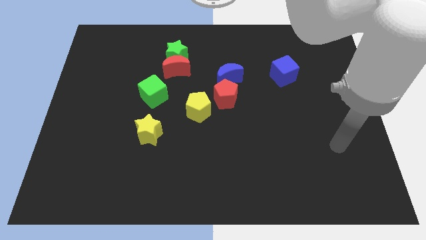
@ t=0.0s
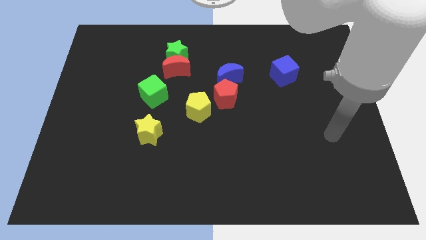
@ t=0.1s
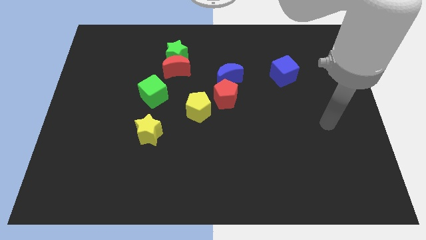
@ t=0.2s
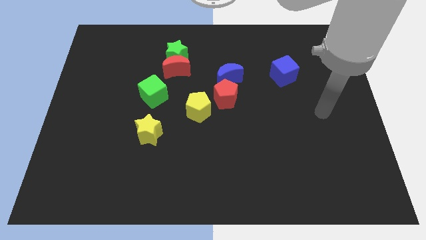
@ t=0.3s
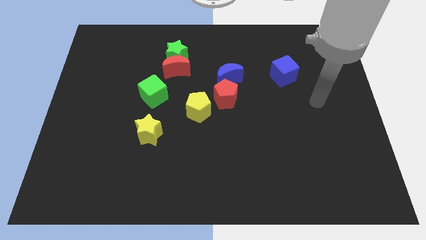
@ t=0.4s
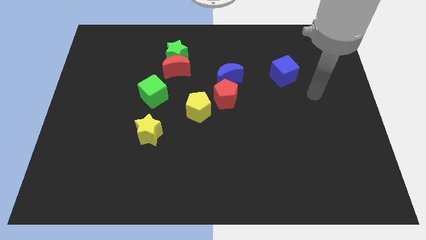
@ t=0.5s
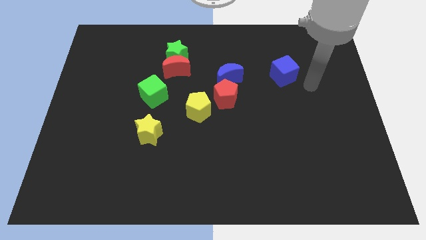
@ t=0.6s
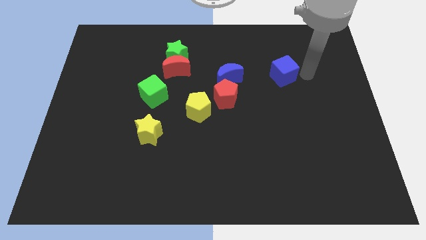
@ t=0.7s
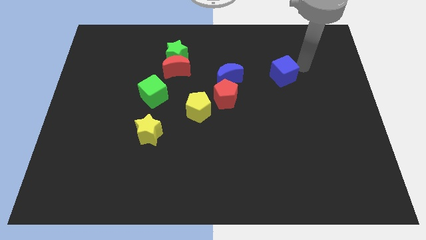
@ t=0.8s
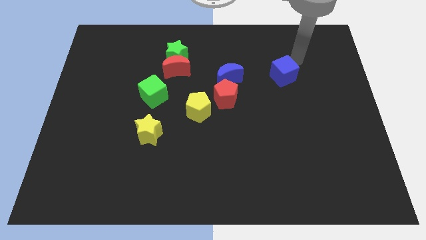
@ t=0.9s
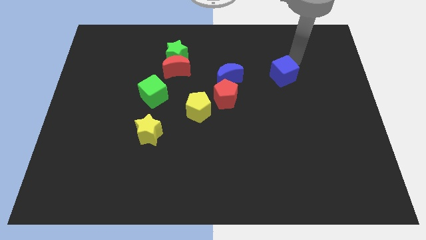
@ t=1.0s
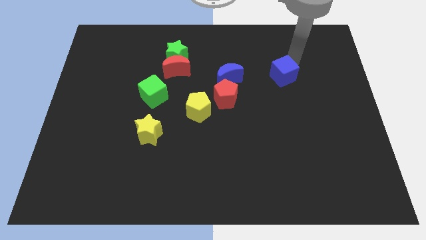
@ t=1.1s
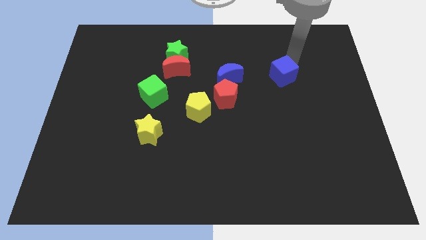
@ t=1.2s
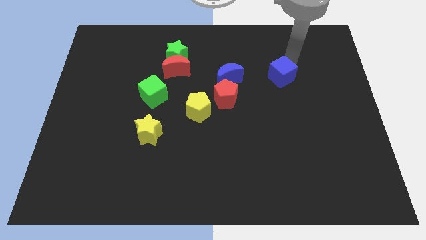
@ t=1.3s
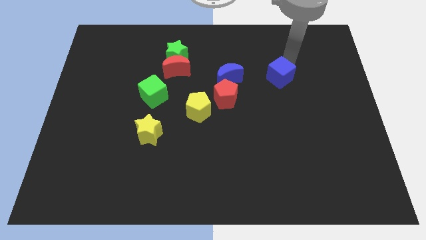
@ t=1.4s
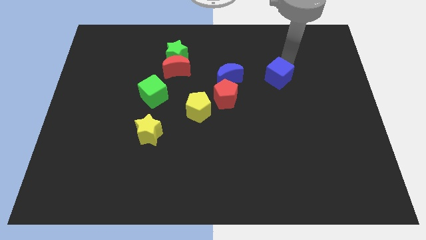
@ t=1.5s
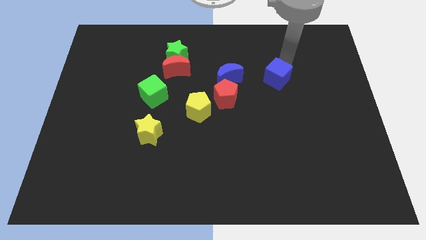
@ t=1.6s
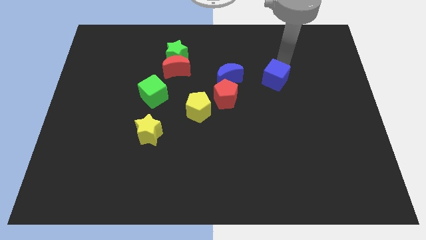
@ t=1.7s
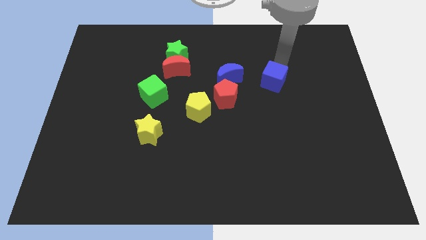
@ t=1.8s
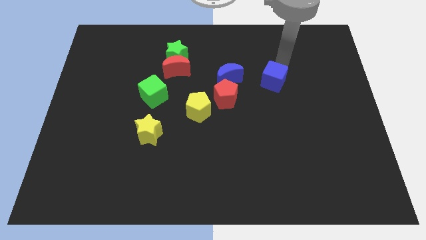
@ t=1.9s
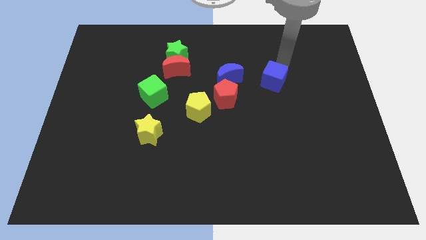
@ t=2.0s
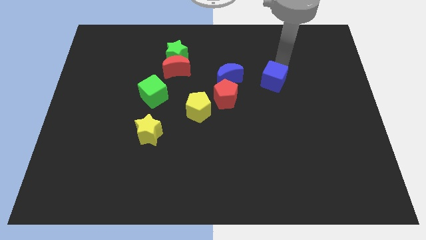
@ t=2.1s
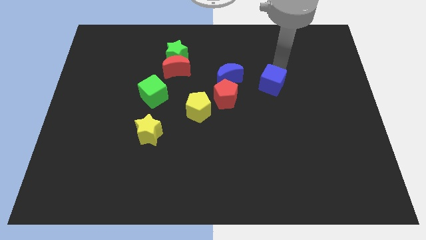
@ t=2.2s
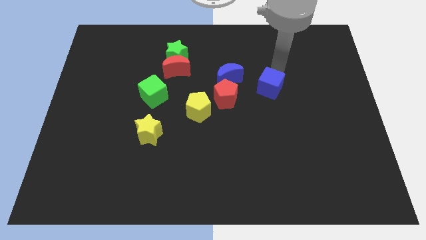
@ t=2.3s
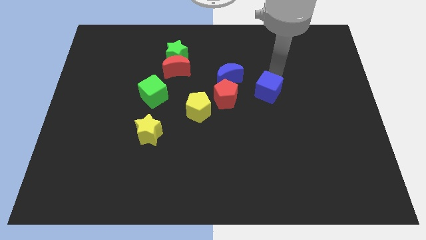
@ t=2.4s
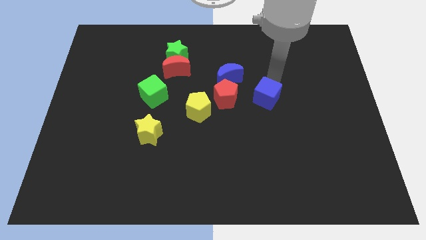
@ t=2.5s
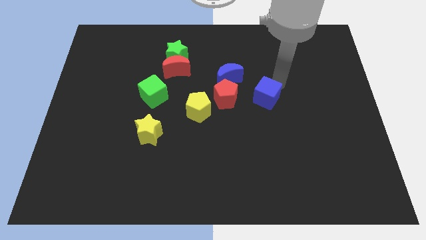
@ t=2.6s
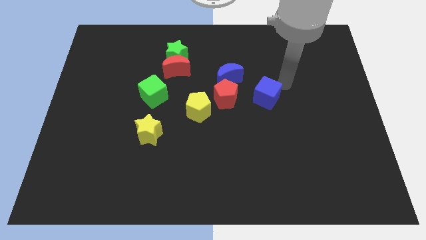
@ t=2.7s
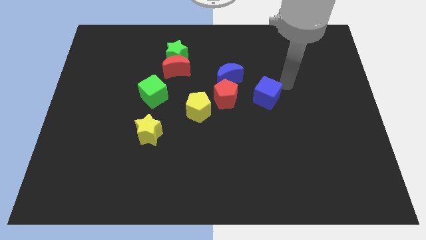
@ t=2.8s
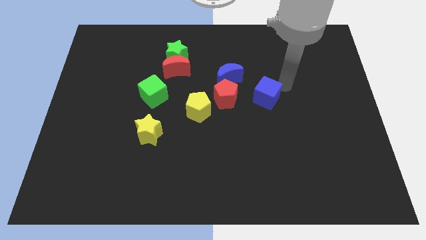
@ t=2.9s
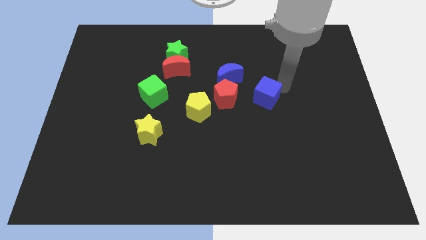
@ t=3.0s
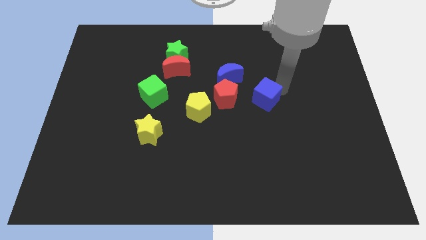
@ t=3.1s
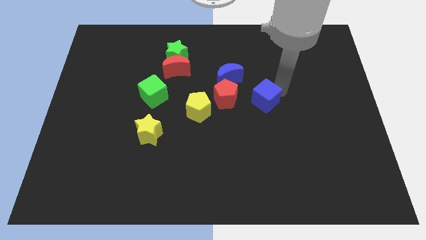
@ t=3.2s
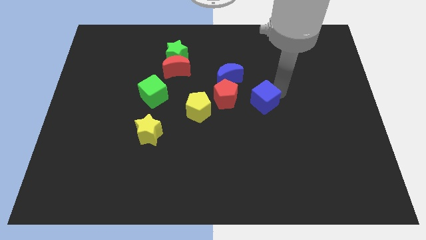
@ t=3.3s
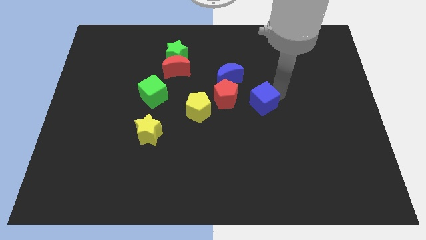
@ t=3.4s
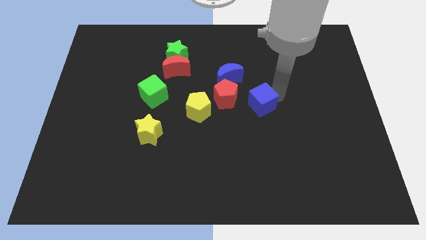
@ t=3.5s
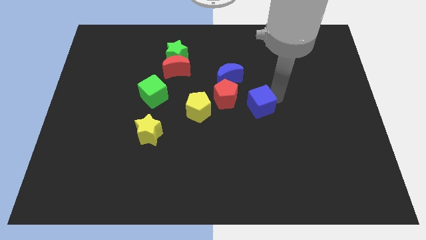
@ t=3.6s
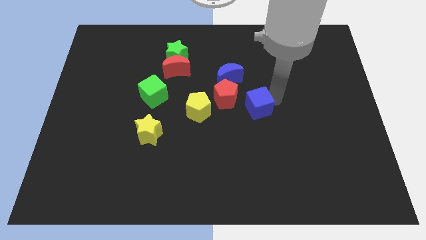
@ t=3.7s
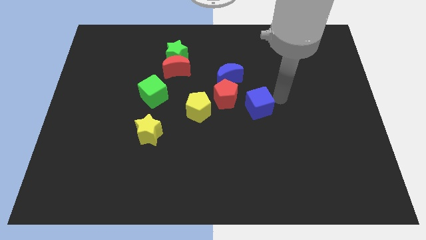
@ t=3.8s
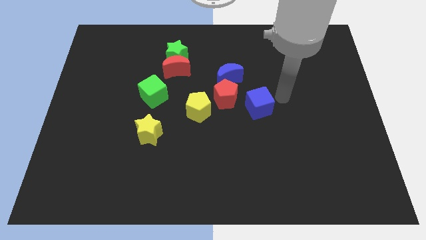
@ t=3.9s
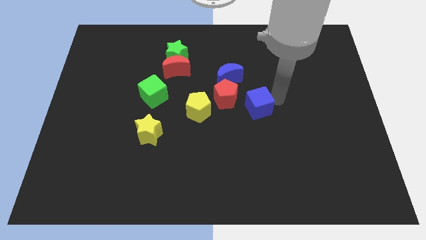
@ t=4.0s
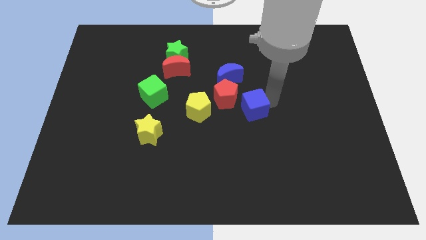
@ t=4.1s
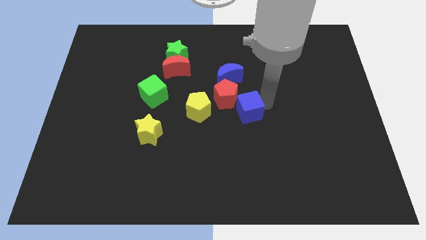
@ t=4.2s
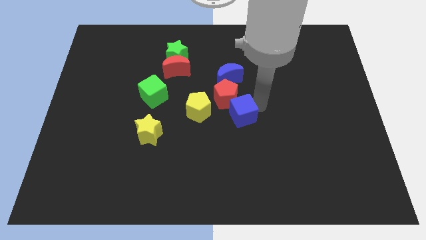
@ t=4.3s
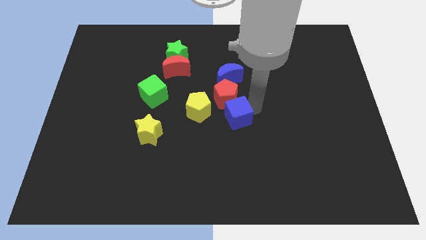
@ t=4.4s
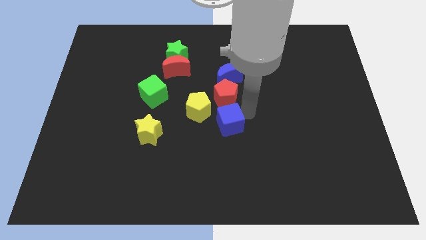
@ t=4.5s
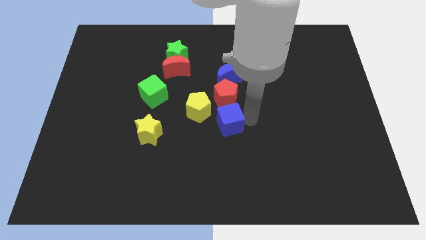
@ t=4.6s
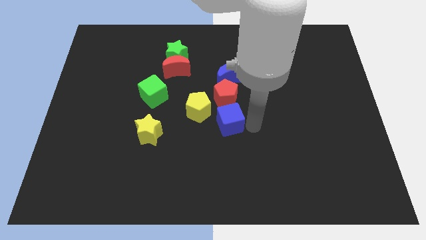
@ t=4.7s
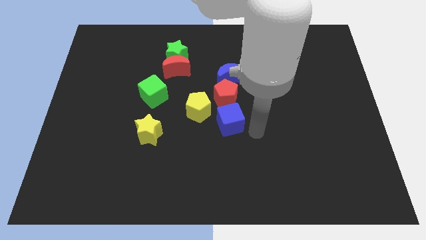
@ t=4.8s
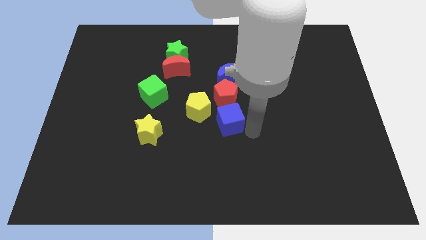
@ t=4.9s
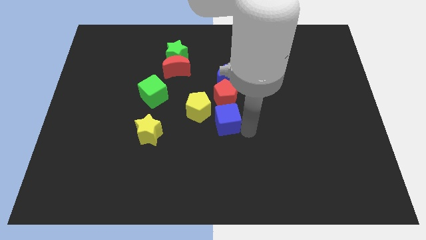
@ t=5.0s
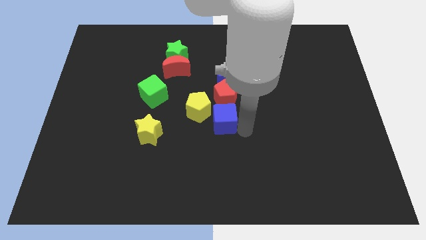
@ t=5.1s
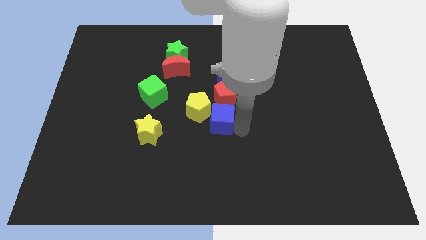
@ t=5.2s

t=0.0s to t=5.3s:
slide the blue cube next to the yellow pentagon

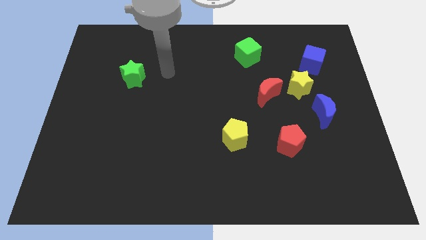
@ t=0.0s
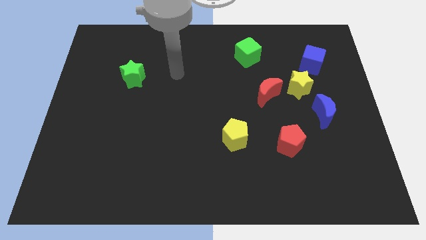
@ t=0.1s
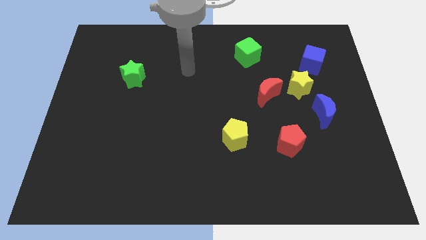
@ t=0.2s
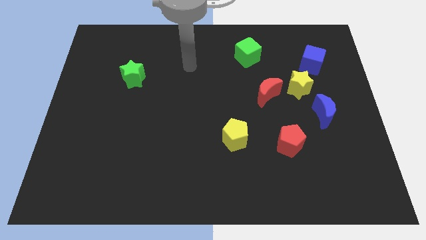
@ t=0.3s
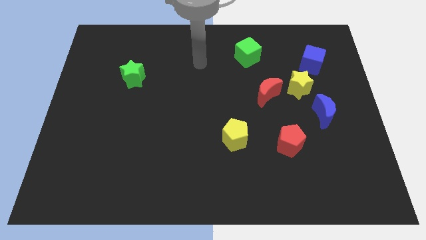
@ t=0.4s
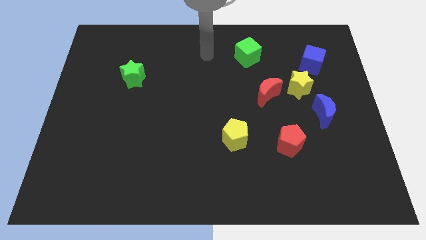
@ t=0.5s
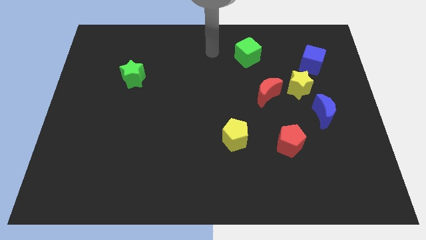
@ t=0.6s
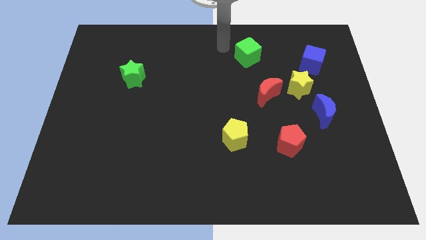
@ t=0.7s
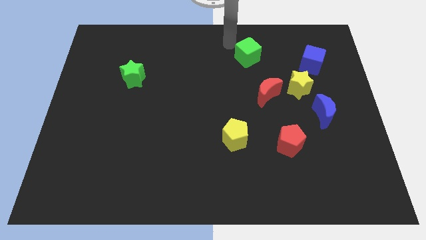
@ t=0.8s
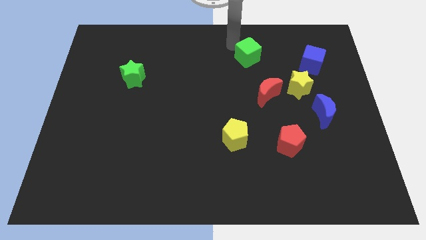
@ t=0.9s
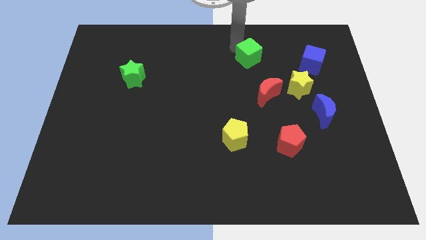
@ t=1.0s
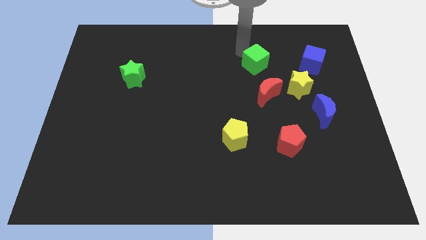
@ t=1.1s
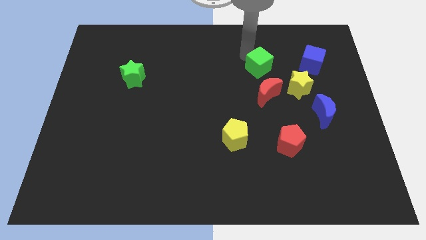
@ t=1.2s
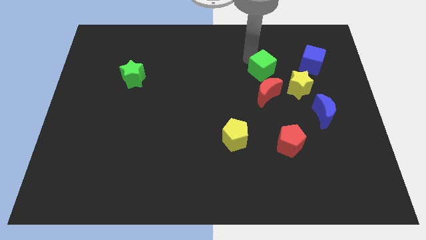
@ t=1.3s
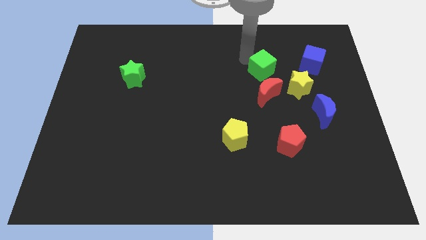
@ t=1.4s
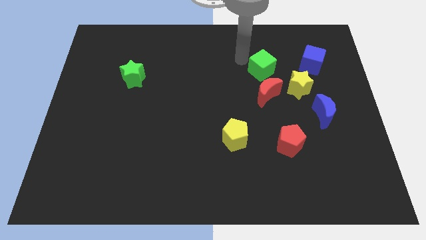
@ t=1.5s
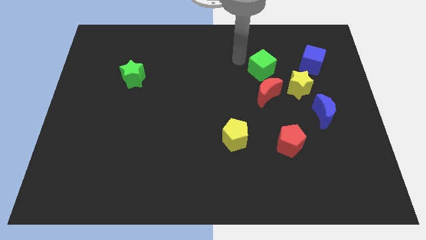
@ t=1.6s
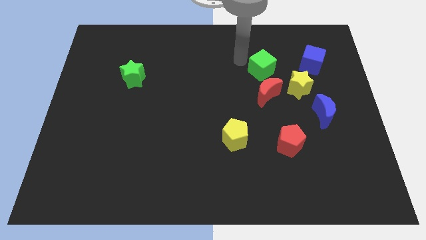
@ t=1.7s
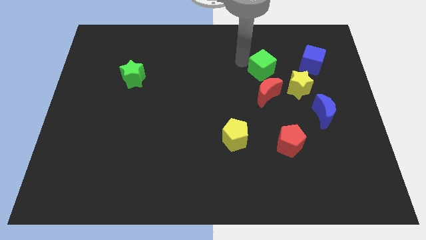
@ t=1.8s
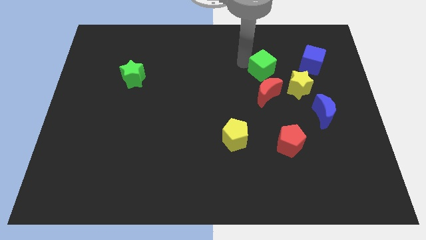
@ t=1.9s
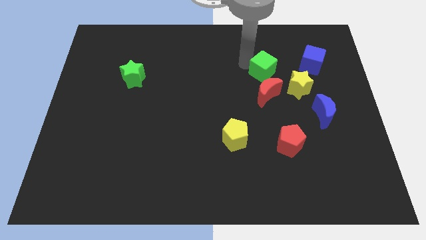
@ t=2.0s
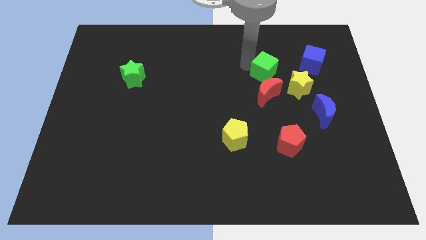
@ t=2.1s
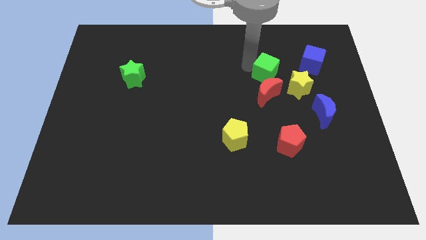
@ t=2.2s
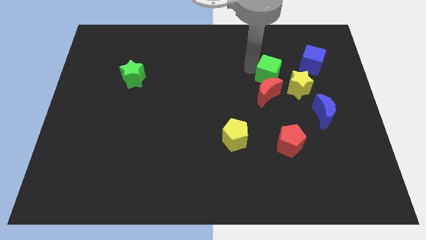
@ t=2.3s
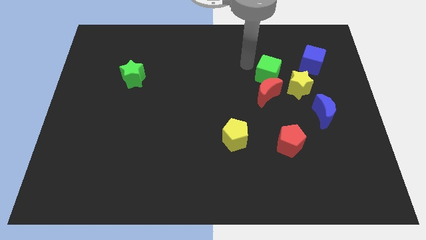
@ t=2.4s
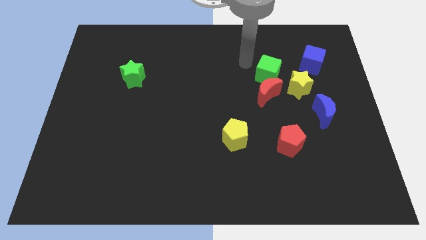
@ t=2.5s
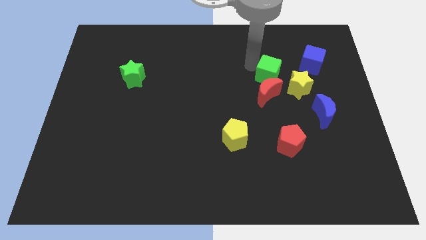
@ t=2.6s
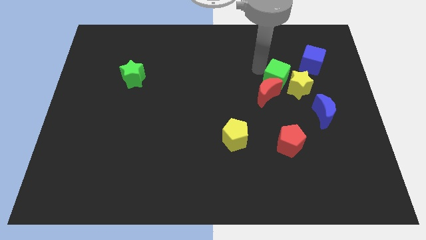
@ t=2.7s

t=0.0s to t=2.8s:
move the green cube towards the yellow star
